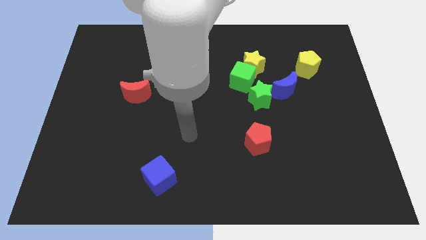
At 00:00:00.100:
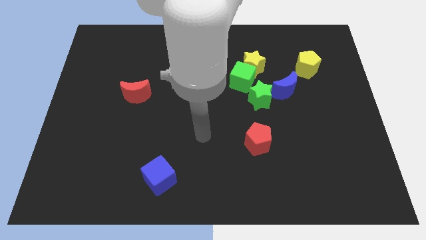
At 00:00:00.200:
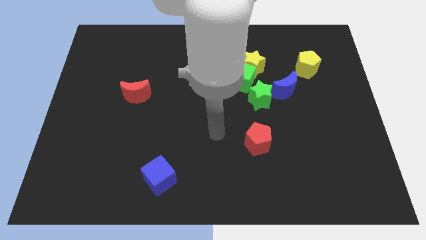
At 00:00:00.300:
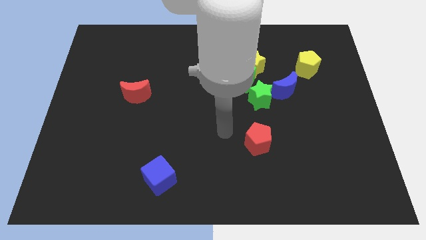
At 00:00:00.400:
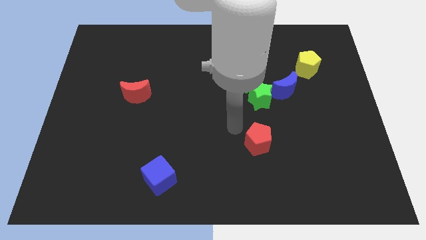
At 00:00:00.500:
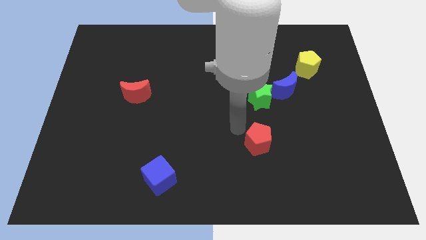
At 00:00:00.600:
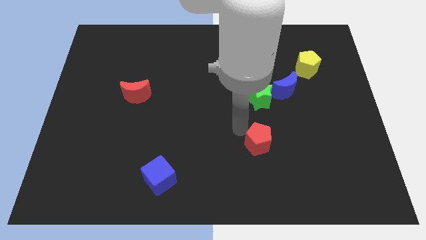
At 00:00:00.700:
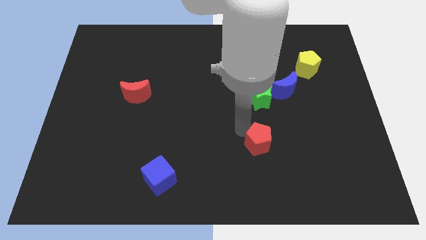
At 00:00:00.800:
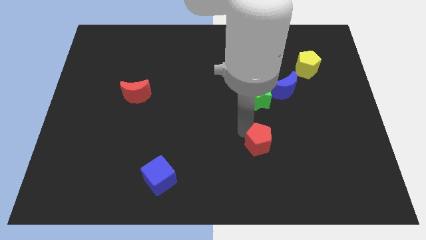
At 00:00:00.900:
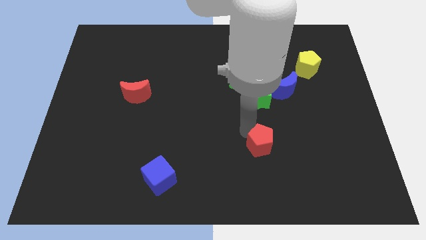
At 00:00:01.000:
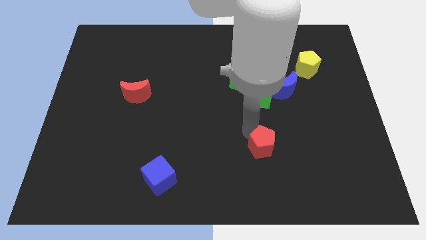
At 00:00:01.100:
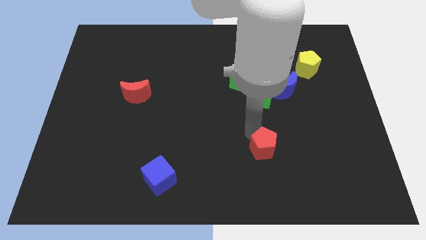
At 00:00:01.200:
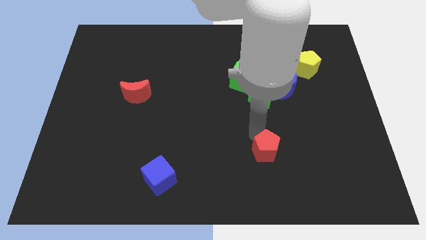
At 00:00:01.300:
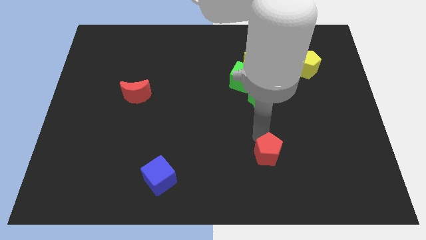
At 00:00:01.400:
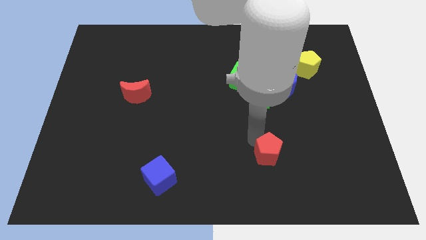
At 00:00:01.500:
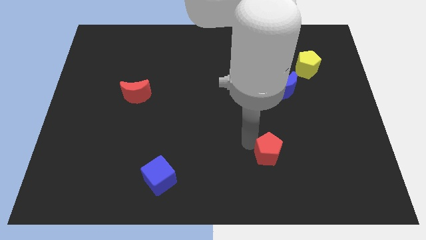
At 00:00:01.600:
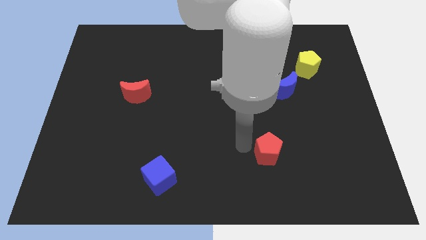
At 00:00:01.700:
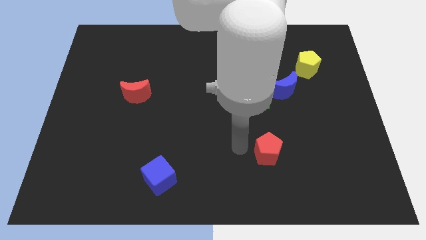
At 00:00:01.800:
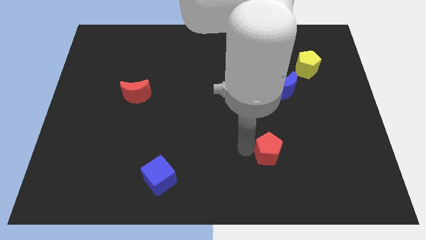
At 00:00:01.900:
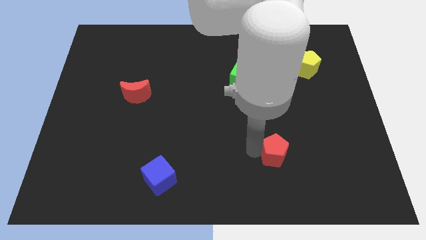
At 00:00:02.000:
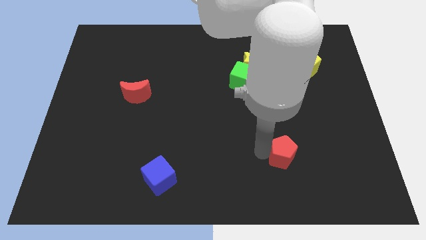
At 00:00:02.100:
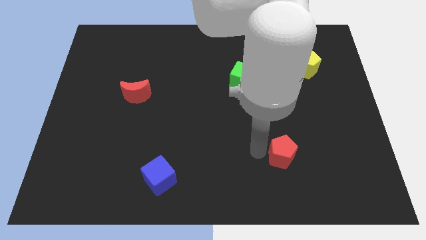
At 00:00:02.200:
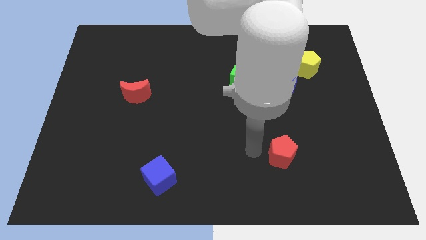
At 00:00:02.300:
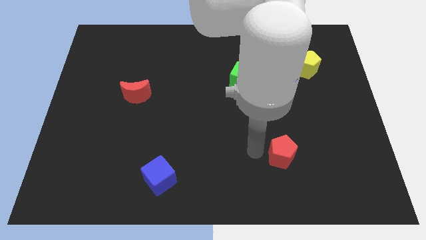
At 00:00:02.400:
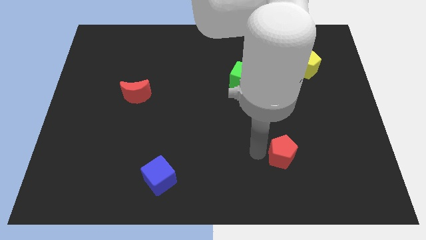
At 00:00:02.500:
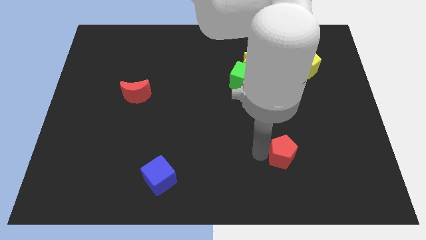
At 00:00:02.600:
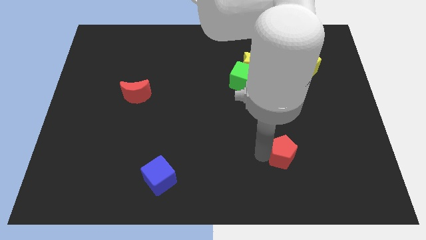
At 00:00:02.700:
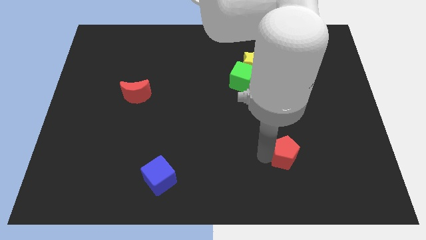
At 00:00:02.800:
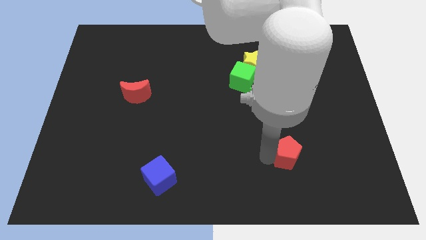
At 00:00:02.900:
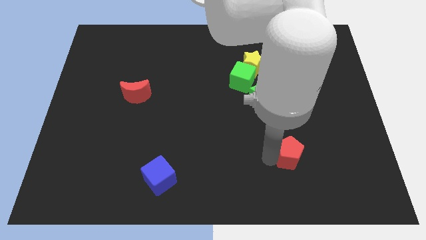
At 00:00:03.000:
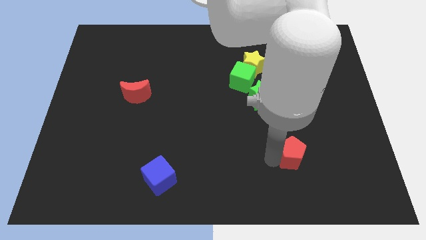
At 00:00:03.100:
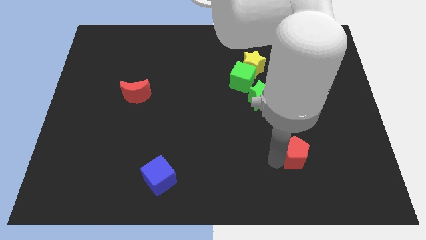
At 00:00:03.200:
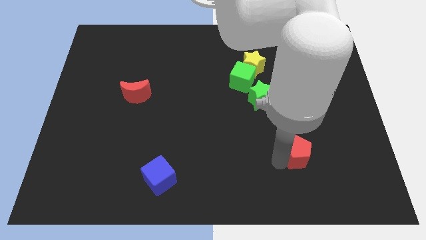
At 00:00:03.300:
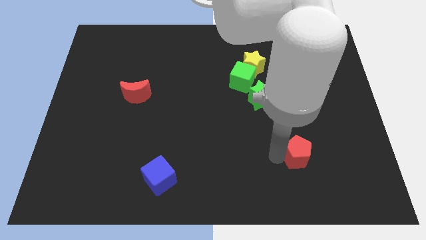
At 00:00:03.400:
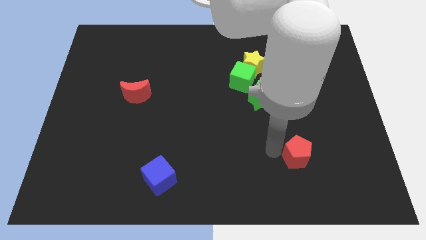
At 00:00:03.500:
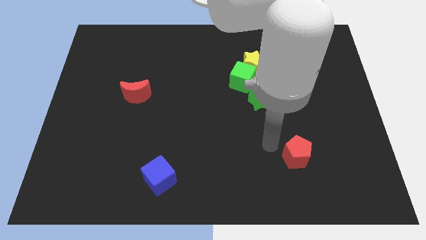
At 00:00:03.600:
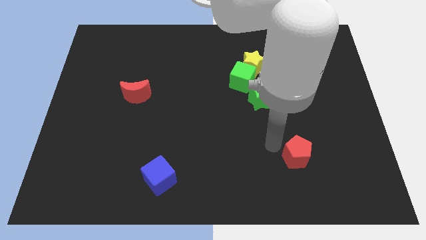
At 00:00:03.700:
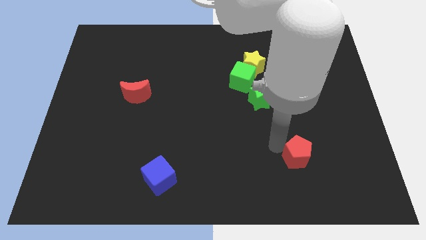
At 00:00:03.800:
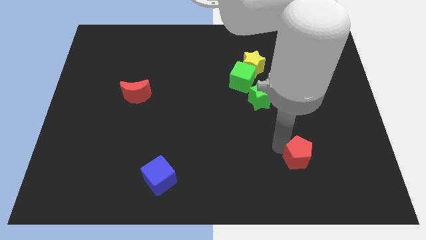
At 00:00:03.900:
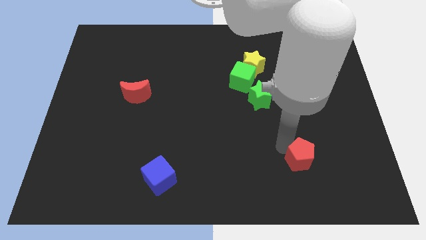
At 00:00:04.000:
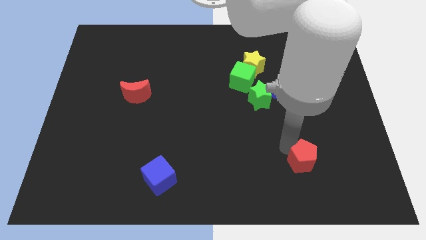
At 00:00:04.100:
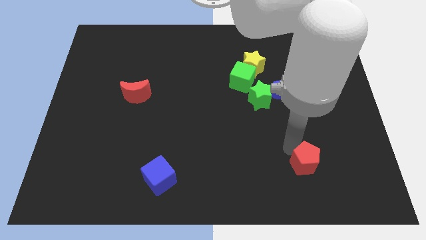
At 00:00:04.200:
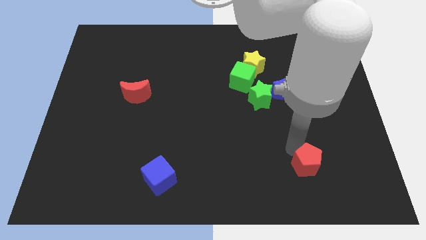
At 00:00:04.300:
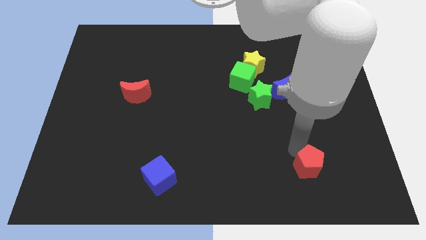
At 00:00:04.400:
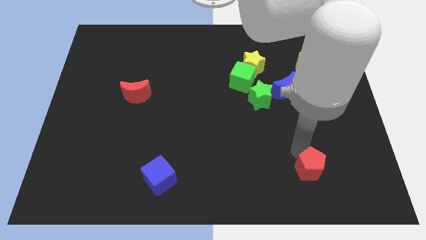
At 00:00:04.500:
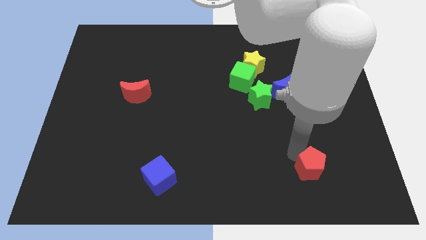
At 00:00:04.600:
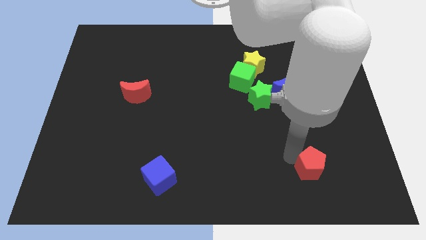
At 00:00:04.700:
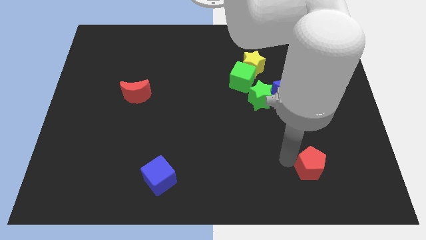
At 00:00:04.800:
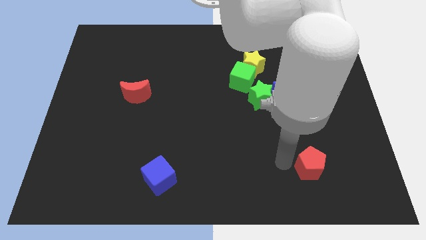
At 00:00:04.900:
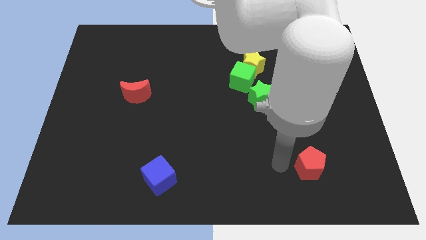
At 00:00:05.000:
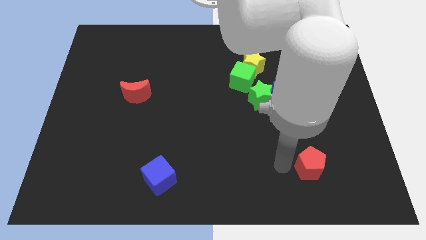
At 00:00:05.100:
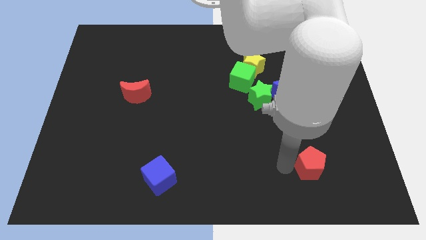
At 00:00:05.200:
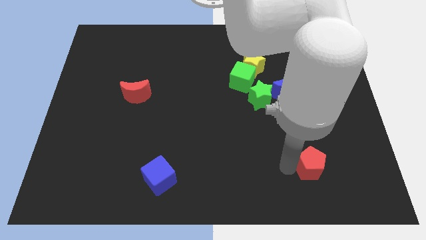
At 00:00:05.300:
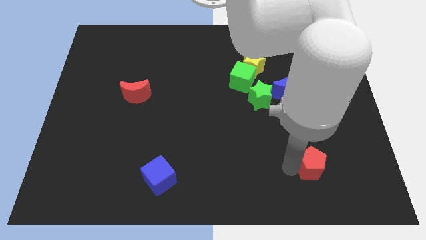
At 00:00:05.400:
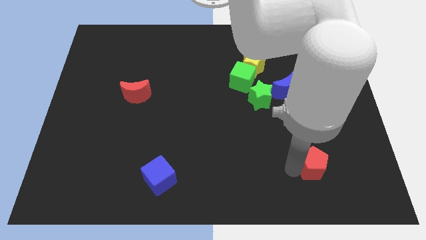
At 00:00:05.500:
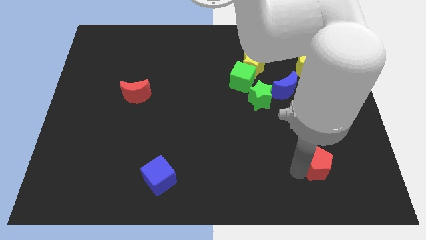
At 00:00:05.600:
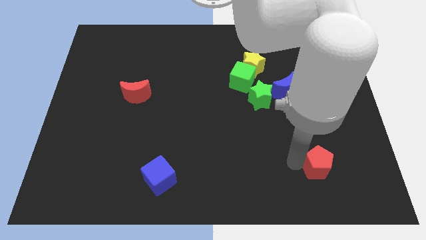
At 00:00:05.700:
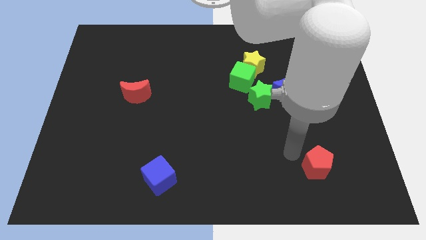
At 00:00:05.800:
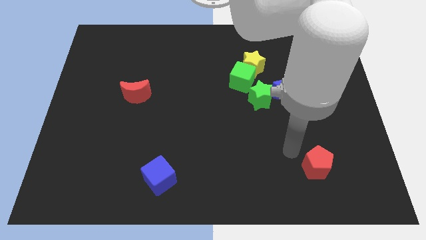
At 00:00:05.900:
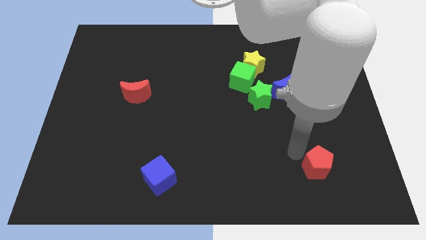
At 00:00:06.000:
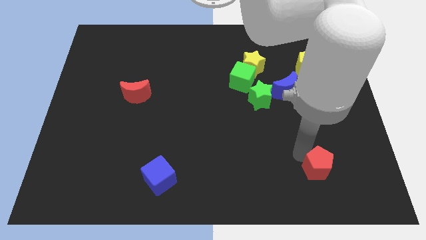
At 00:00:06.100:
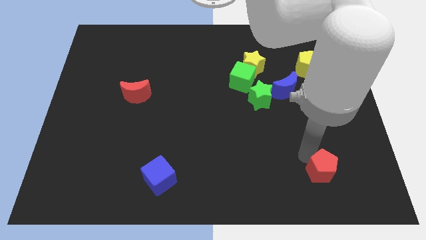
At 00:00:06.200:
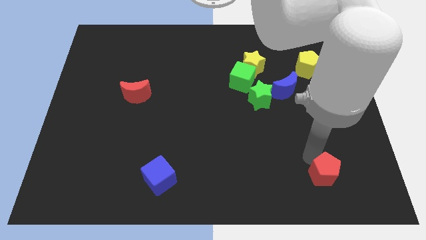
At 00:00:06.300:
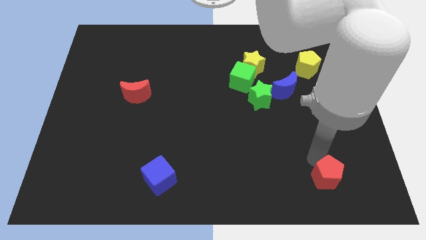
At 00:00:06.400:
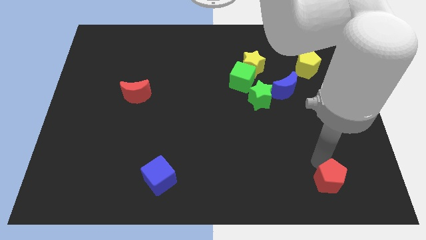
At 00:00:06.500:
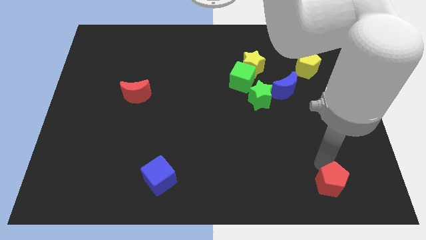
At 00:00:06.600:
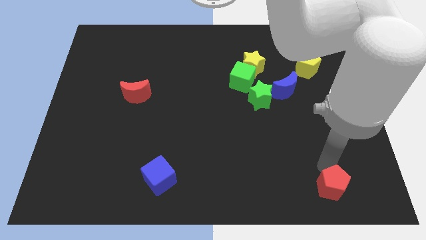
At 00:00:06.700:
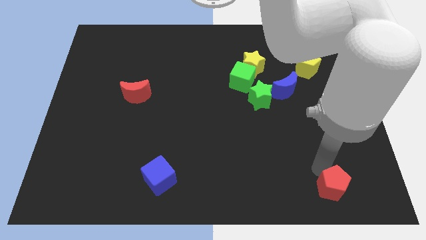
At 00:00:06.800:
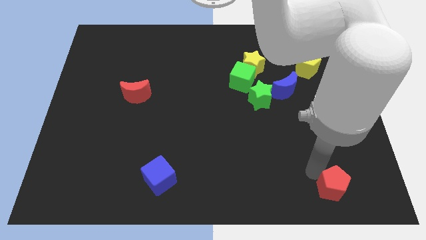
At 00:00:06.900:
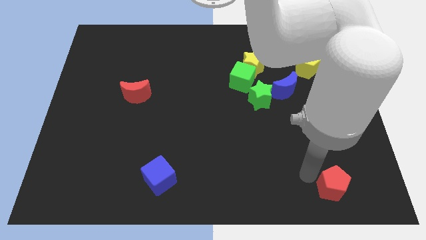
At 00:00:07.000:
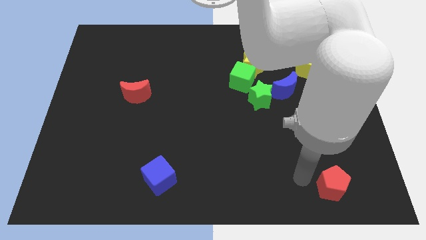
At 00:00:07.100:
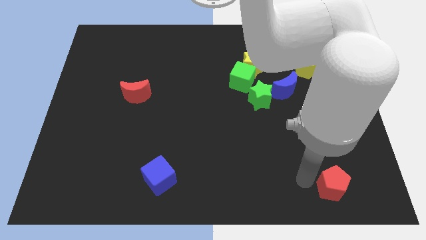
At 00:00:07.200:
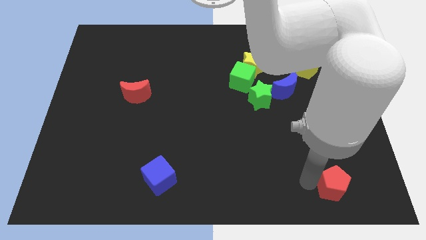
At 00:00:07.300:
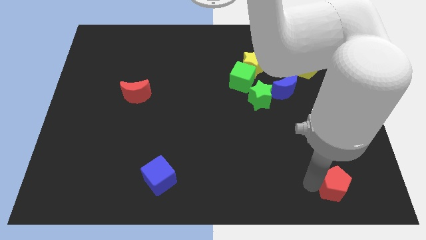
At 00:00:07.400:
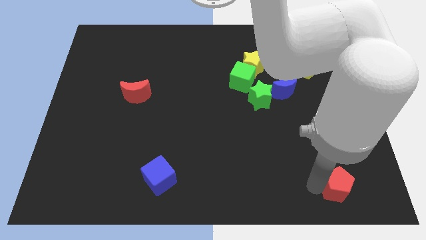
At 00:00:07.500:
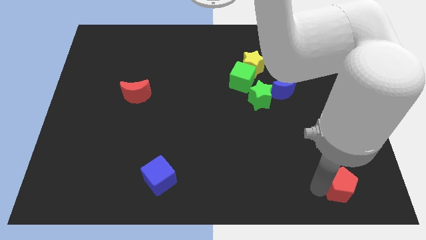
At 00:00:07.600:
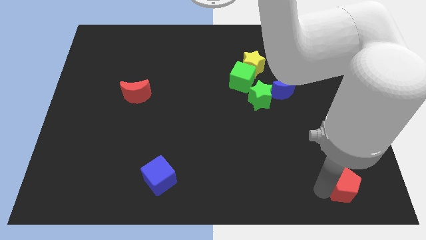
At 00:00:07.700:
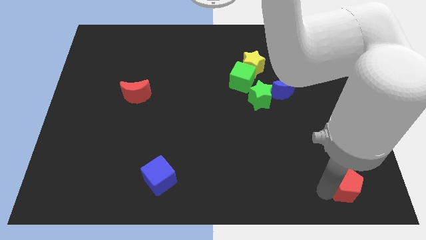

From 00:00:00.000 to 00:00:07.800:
slide the red pentagon to the bottom right of the board
